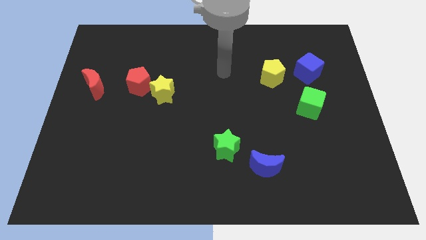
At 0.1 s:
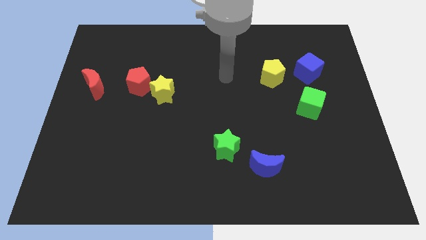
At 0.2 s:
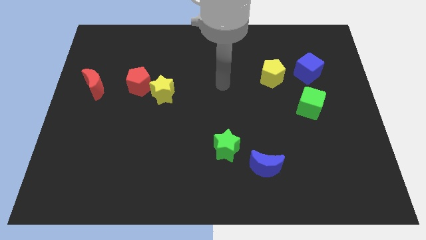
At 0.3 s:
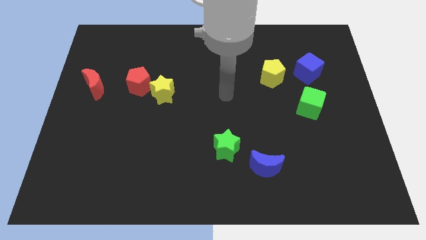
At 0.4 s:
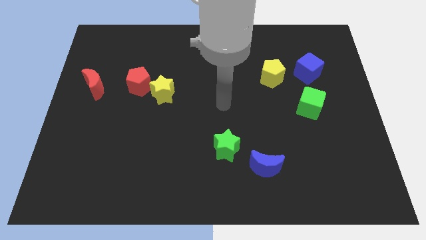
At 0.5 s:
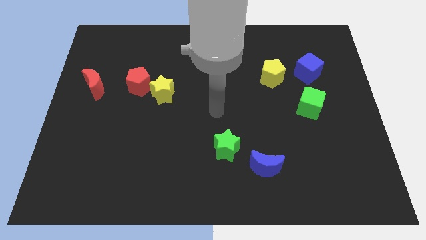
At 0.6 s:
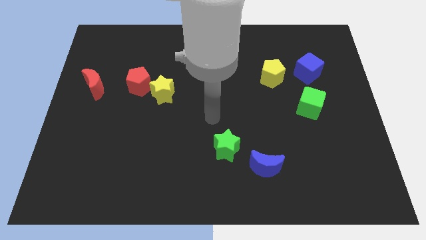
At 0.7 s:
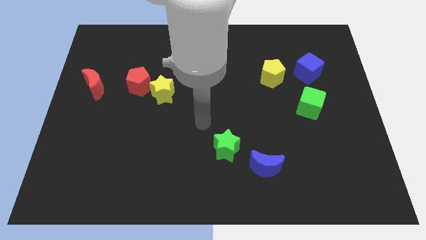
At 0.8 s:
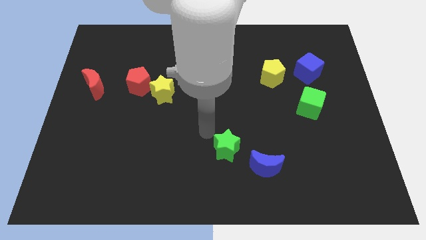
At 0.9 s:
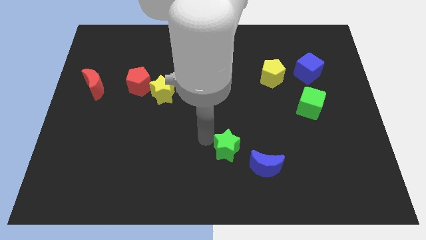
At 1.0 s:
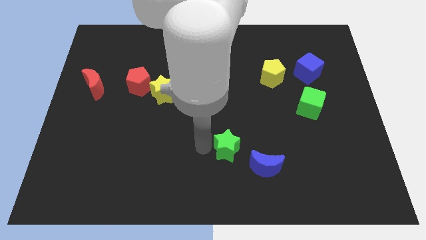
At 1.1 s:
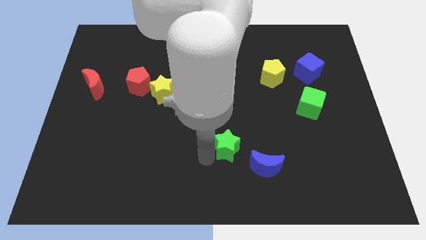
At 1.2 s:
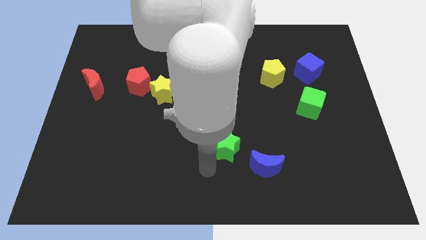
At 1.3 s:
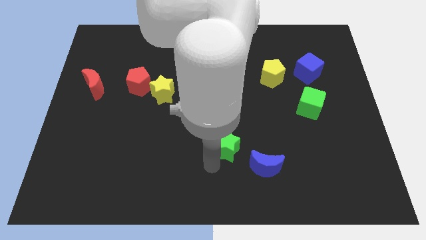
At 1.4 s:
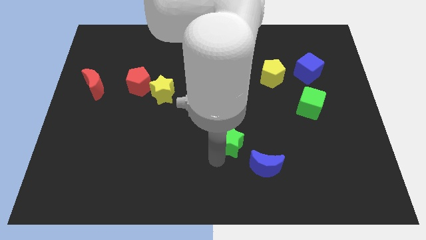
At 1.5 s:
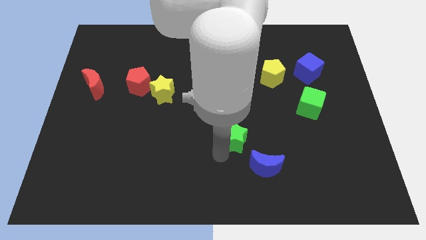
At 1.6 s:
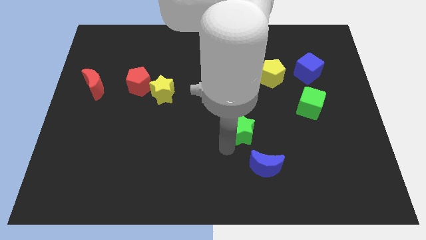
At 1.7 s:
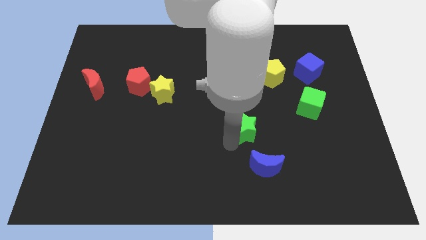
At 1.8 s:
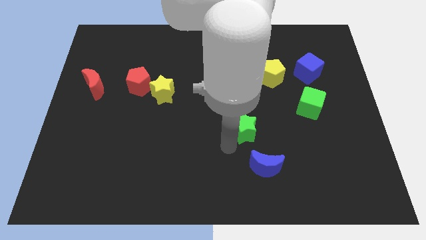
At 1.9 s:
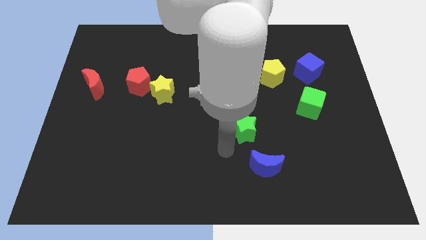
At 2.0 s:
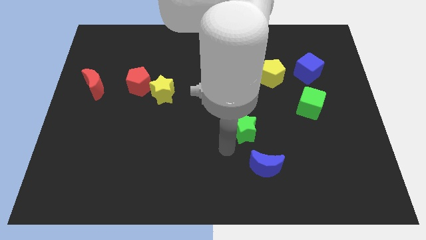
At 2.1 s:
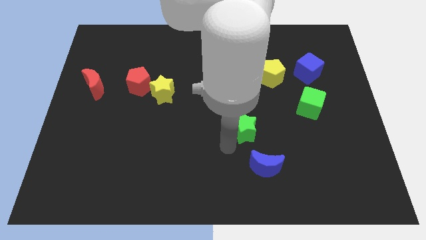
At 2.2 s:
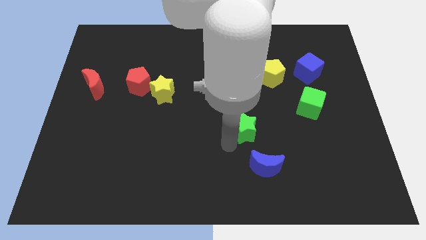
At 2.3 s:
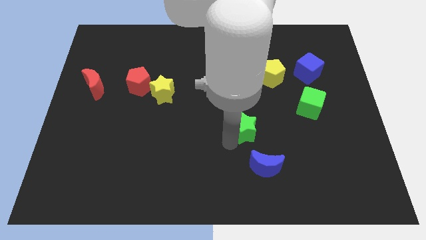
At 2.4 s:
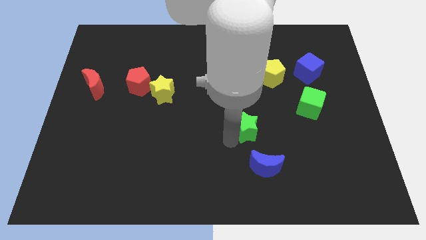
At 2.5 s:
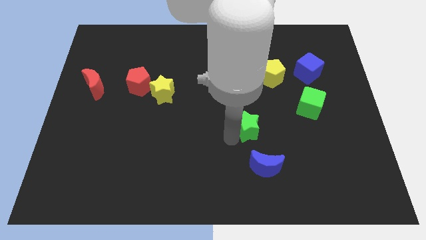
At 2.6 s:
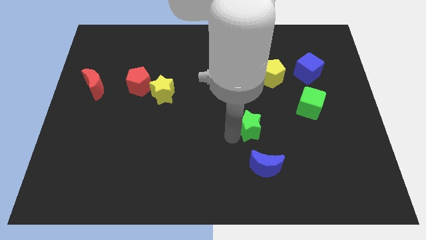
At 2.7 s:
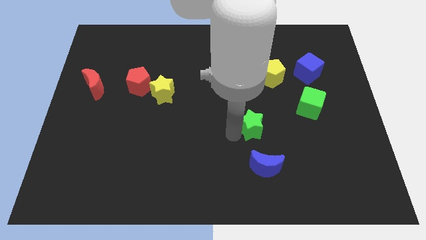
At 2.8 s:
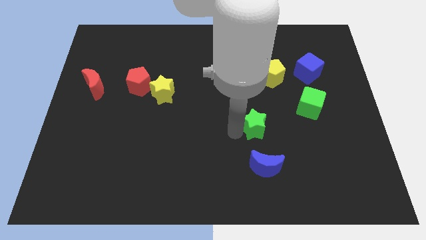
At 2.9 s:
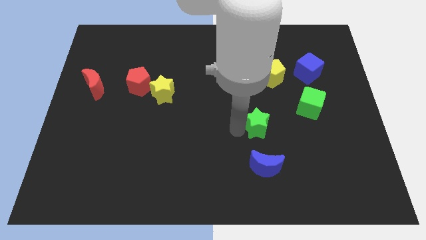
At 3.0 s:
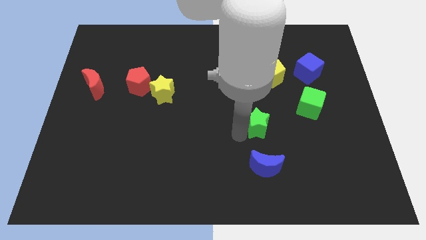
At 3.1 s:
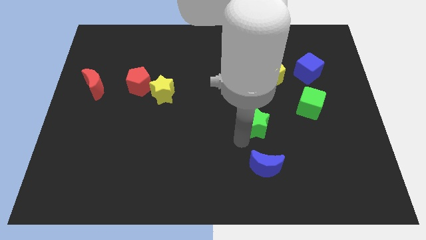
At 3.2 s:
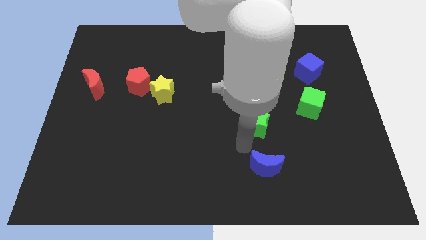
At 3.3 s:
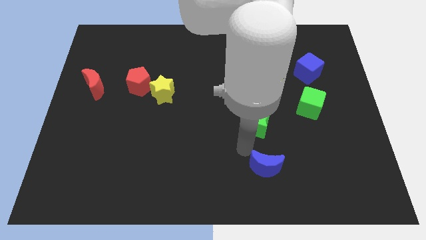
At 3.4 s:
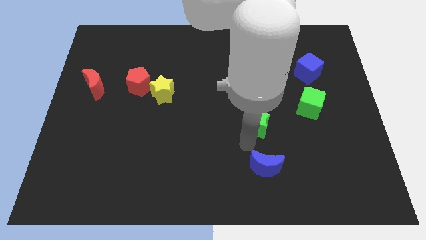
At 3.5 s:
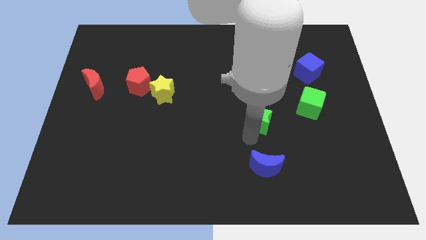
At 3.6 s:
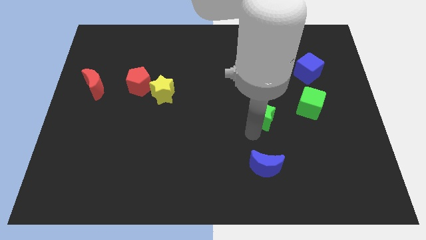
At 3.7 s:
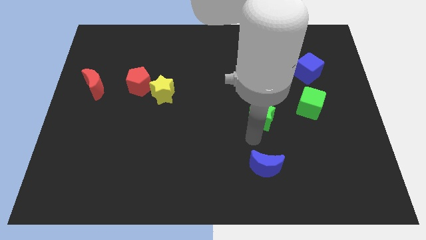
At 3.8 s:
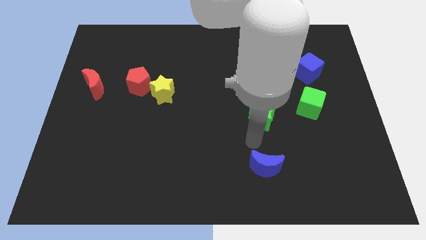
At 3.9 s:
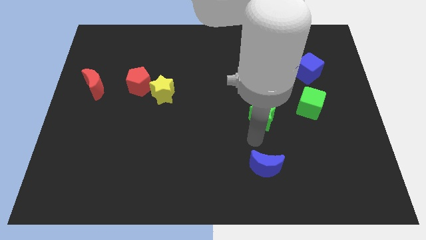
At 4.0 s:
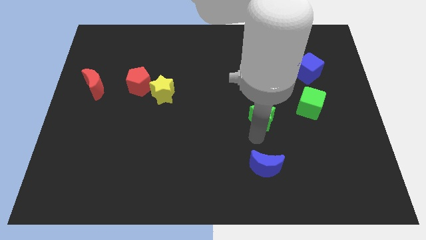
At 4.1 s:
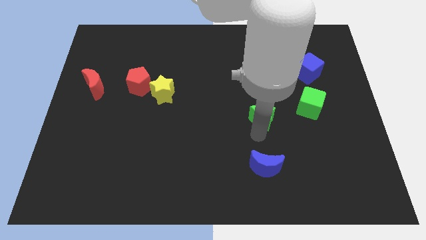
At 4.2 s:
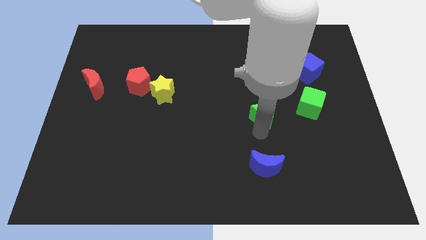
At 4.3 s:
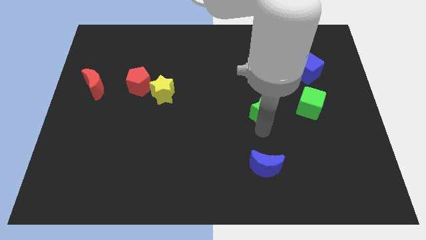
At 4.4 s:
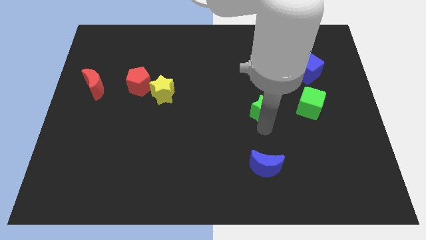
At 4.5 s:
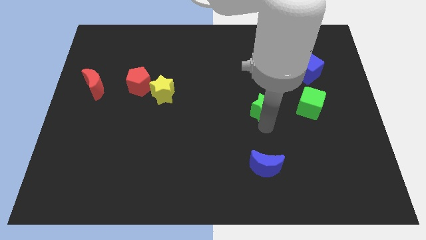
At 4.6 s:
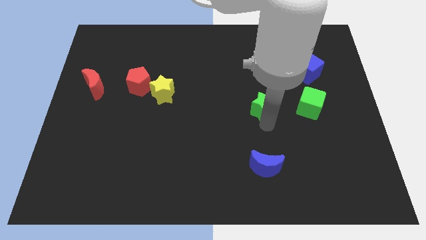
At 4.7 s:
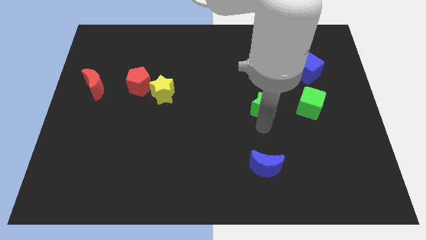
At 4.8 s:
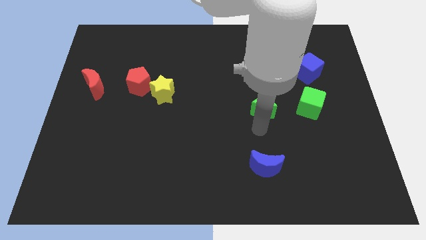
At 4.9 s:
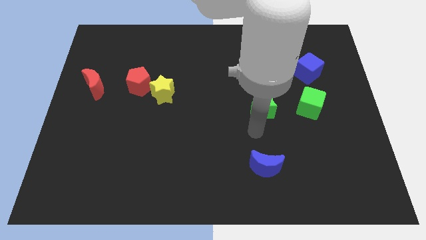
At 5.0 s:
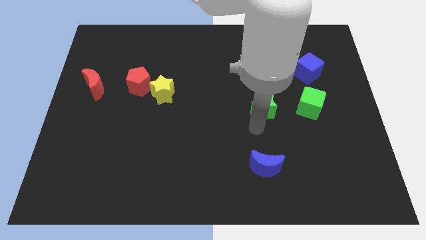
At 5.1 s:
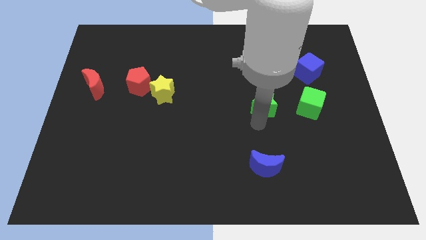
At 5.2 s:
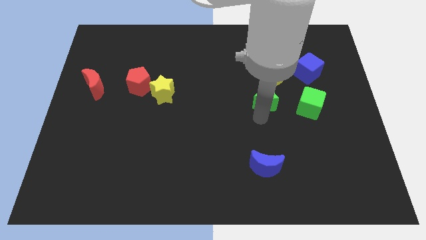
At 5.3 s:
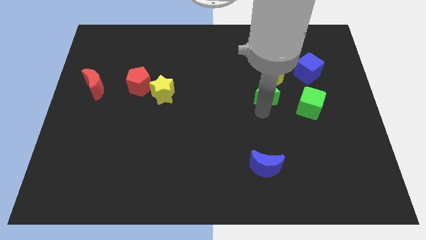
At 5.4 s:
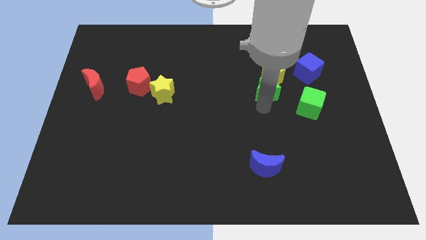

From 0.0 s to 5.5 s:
move the green star close to the yellow pentagon
